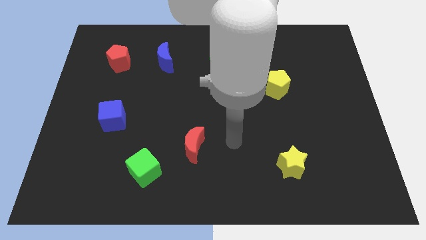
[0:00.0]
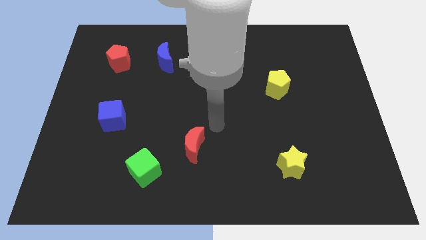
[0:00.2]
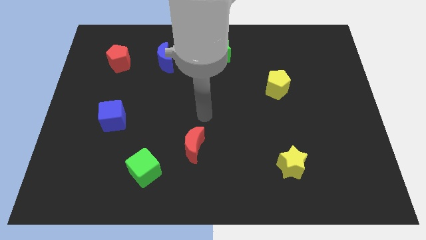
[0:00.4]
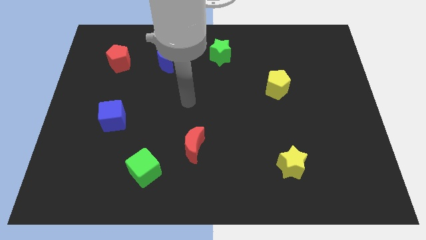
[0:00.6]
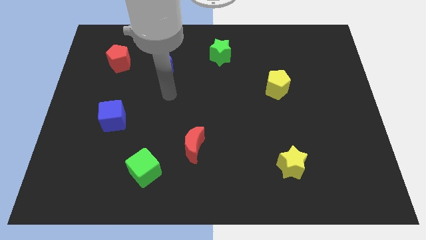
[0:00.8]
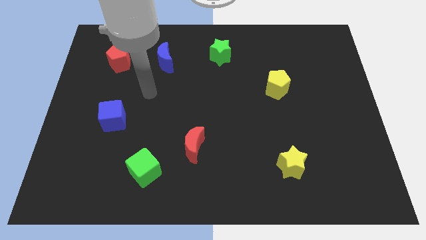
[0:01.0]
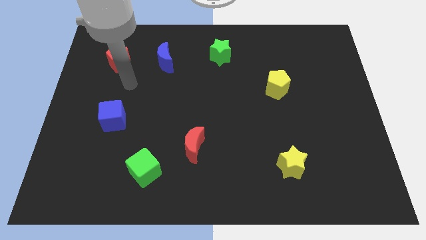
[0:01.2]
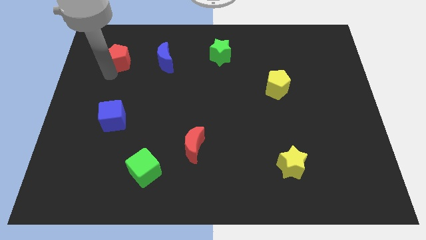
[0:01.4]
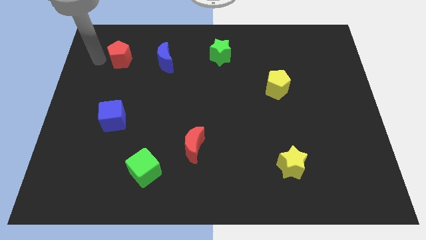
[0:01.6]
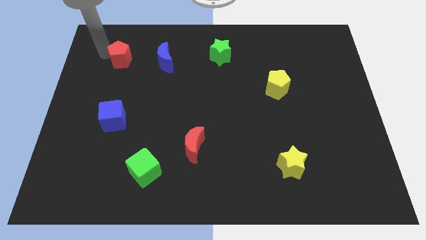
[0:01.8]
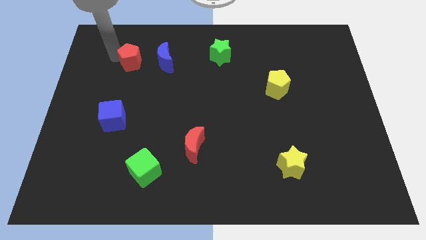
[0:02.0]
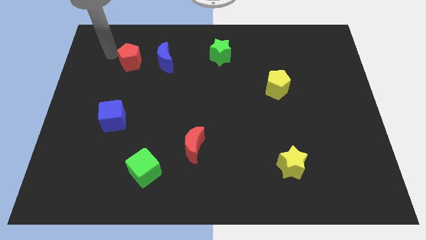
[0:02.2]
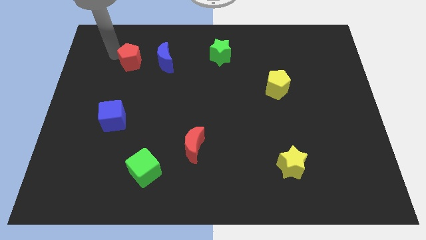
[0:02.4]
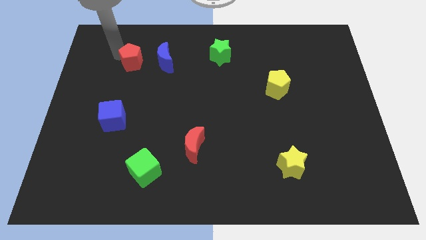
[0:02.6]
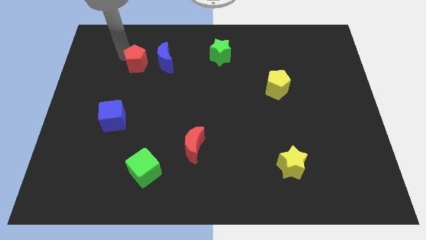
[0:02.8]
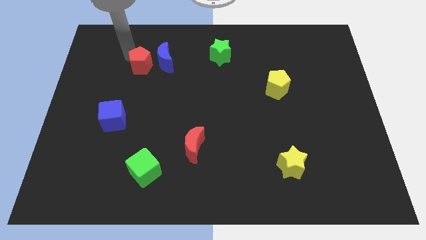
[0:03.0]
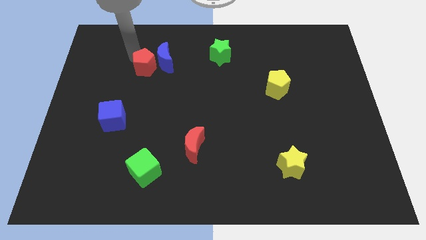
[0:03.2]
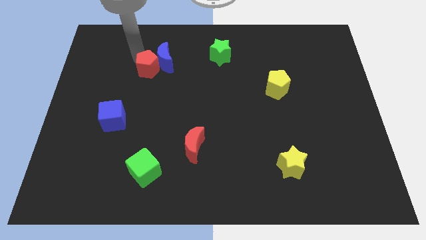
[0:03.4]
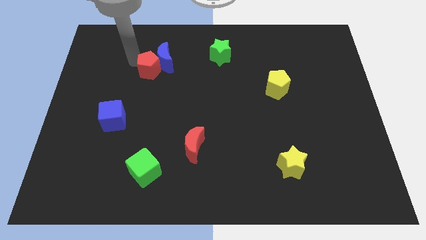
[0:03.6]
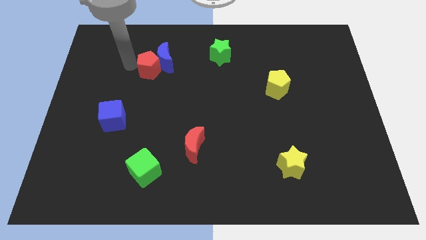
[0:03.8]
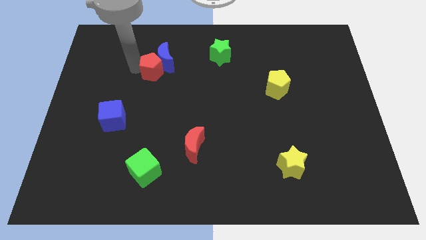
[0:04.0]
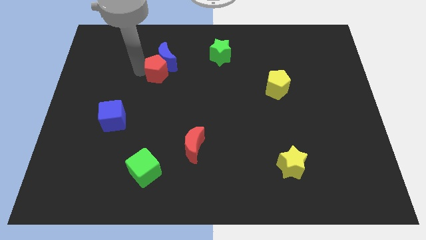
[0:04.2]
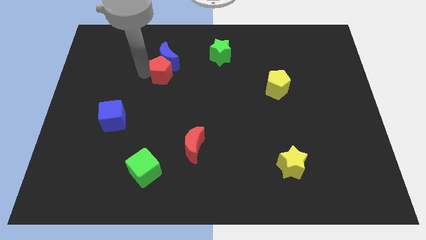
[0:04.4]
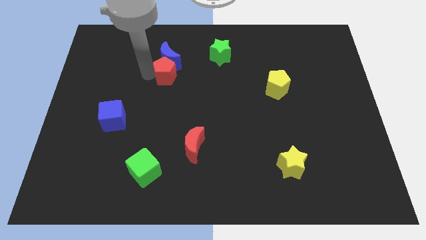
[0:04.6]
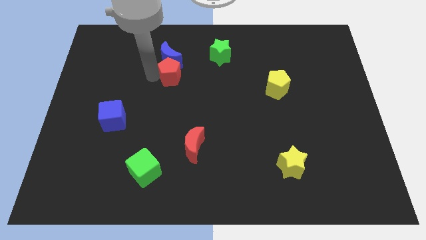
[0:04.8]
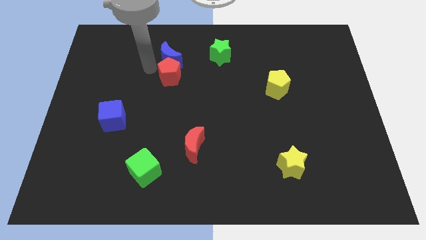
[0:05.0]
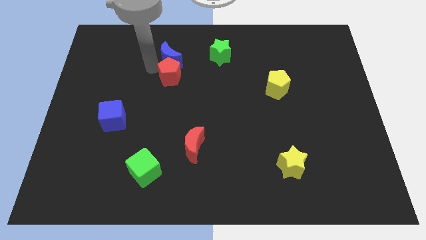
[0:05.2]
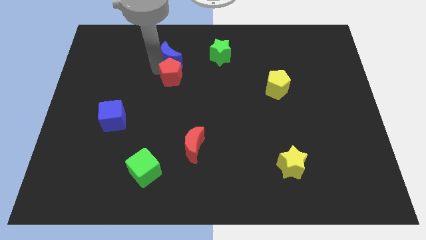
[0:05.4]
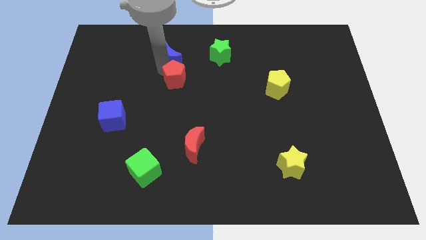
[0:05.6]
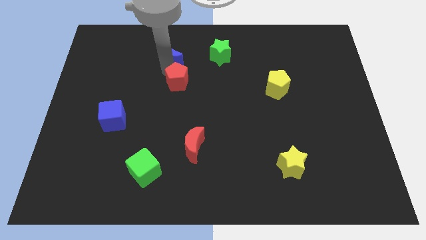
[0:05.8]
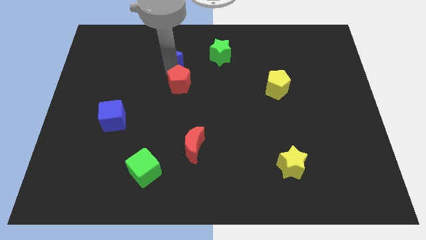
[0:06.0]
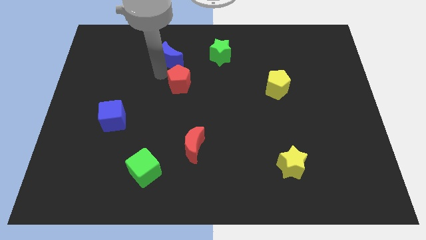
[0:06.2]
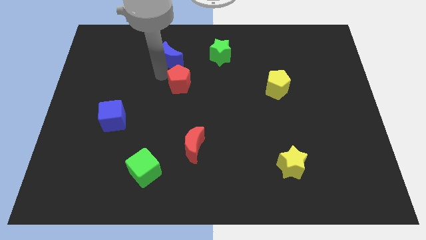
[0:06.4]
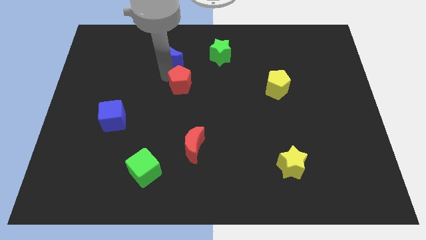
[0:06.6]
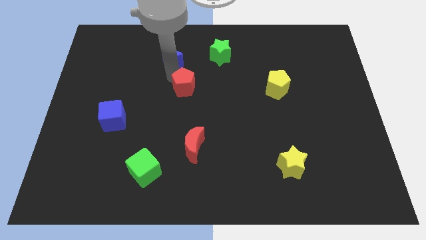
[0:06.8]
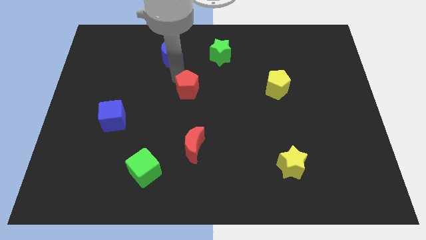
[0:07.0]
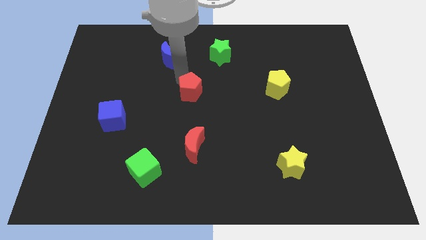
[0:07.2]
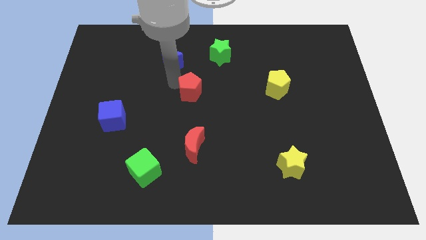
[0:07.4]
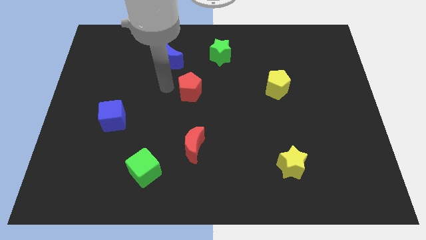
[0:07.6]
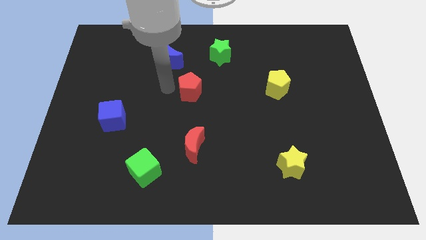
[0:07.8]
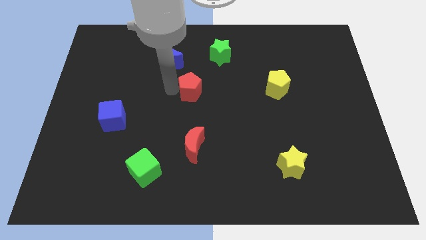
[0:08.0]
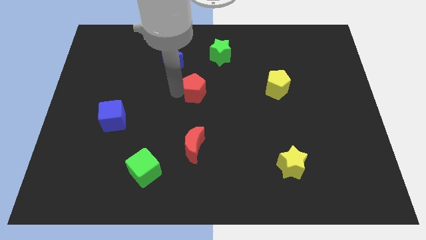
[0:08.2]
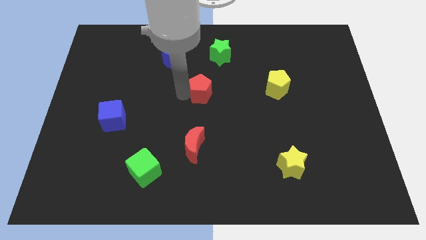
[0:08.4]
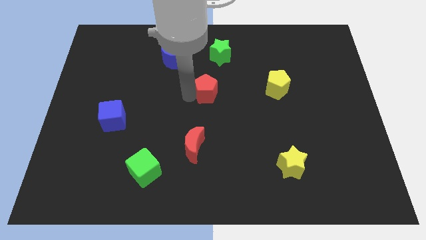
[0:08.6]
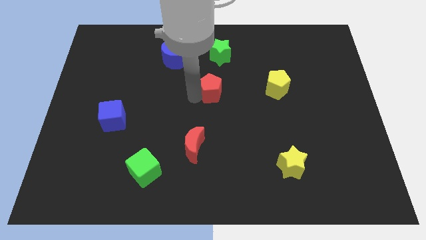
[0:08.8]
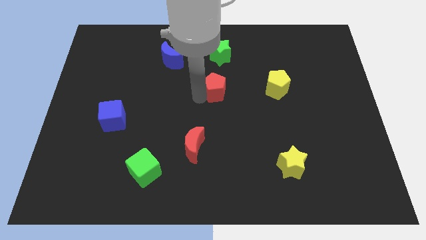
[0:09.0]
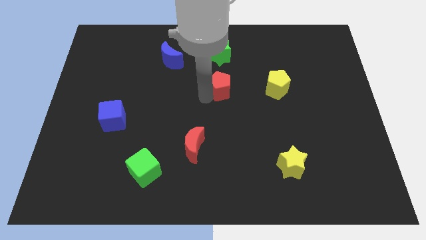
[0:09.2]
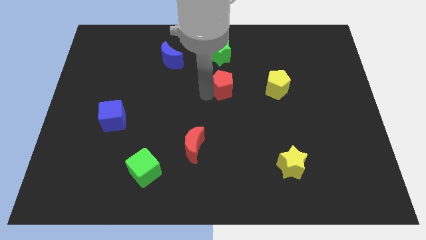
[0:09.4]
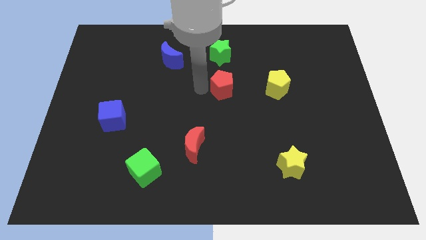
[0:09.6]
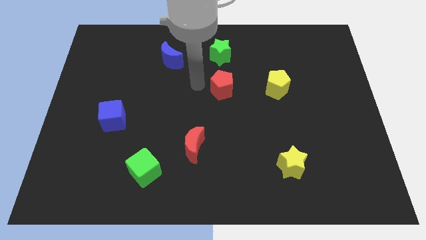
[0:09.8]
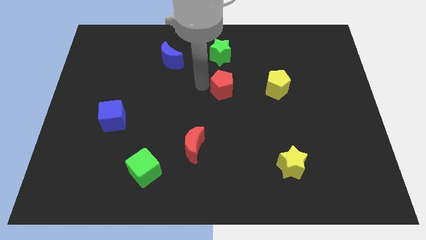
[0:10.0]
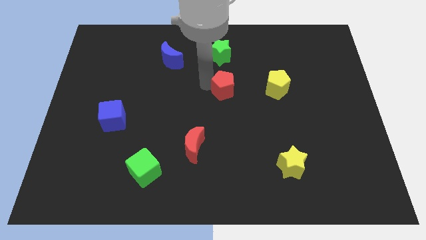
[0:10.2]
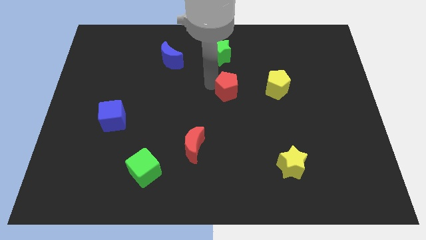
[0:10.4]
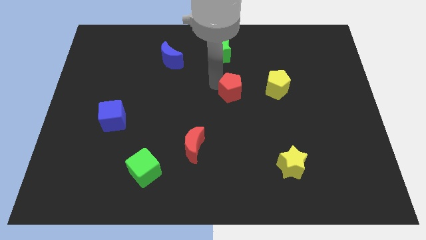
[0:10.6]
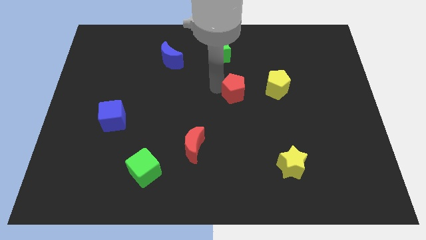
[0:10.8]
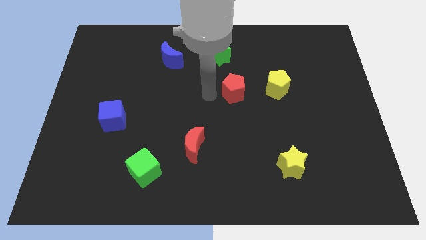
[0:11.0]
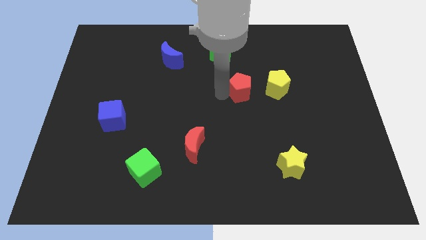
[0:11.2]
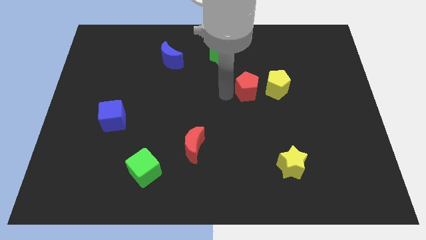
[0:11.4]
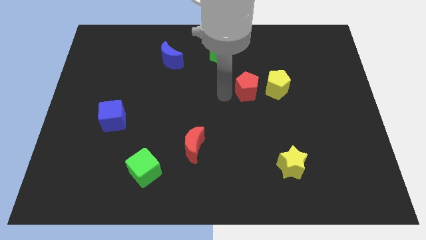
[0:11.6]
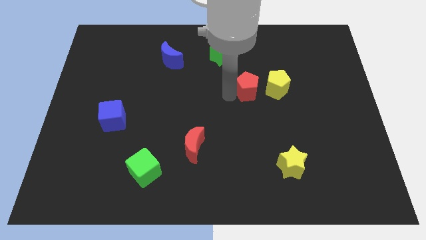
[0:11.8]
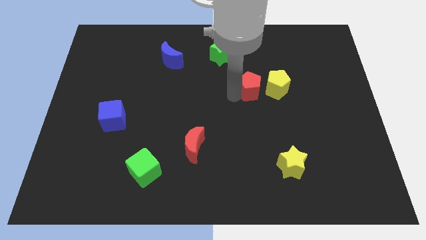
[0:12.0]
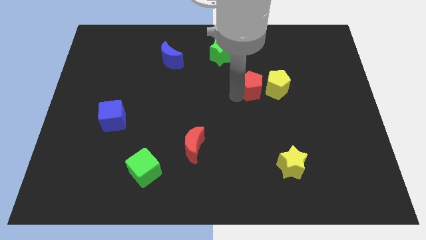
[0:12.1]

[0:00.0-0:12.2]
push the red pentagon to the yellow pentagon

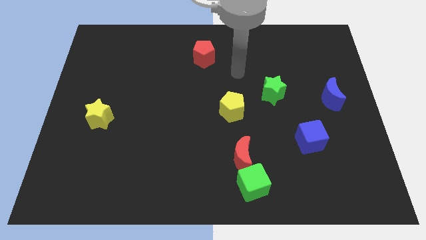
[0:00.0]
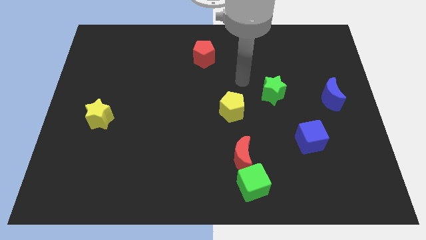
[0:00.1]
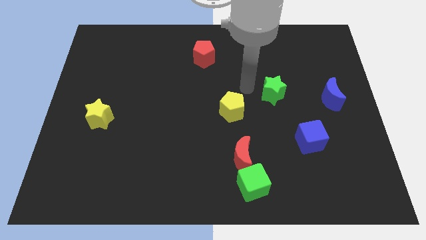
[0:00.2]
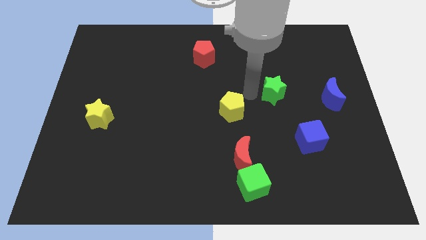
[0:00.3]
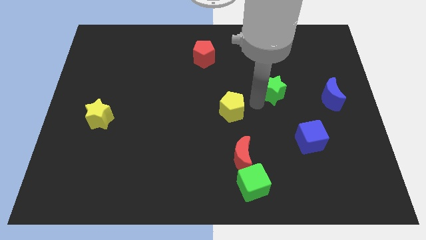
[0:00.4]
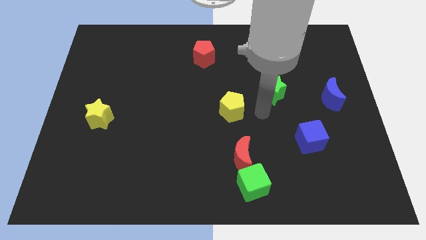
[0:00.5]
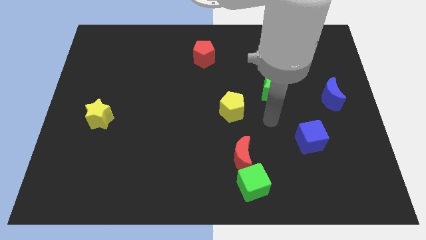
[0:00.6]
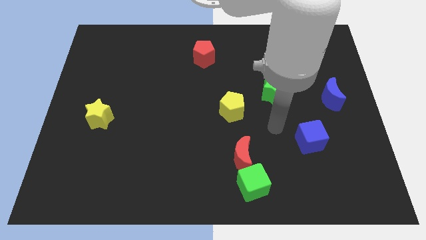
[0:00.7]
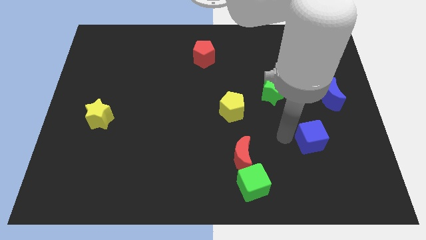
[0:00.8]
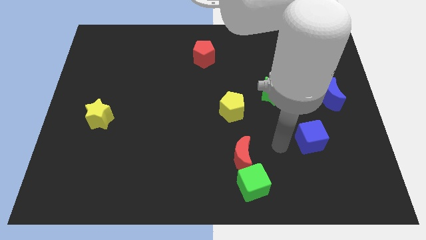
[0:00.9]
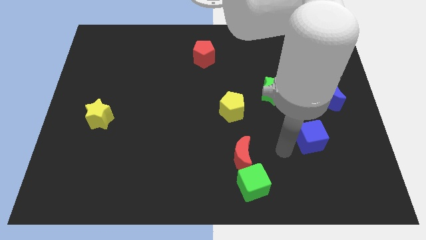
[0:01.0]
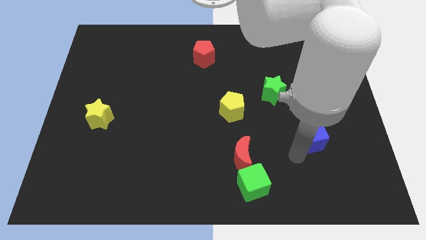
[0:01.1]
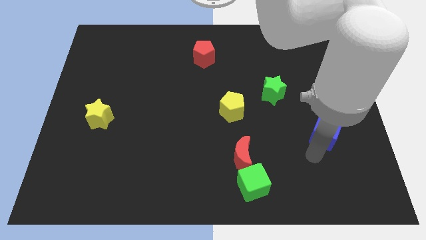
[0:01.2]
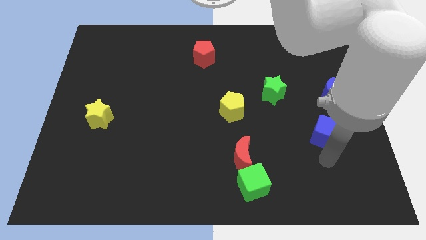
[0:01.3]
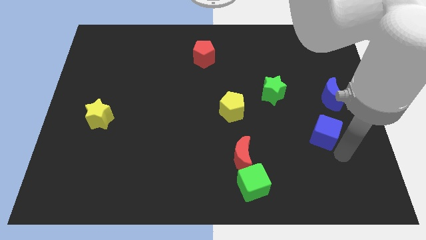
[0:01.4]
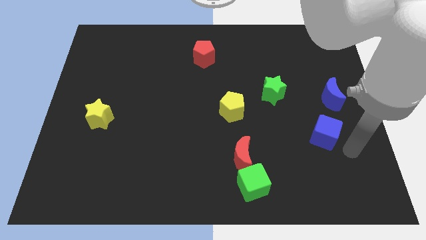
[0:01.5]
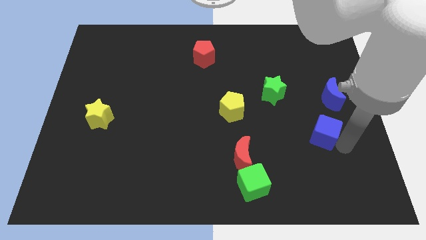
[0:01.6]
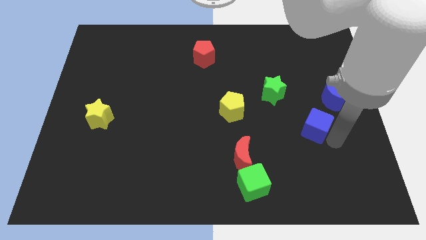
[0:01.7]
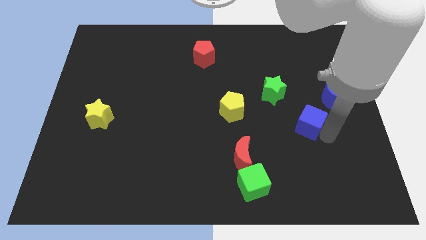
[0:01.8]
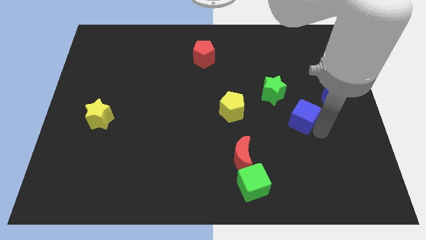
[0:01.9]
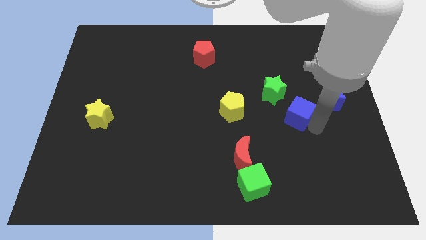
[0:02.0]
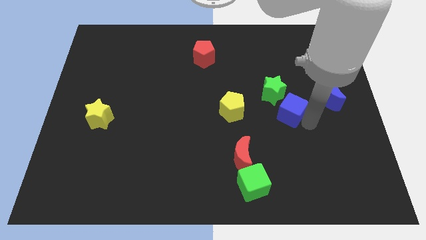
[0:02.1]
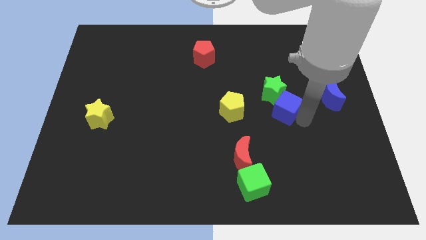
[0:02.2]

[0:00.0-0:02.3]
move the blue cube towards the green star
